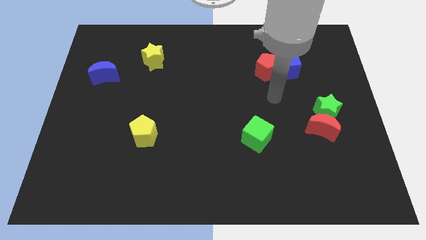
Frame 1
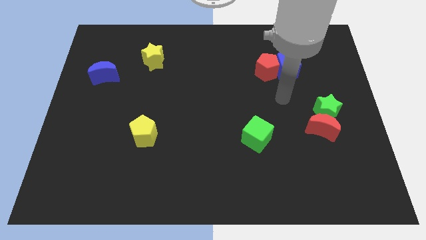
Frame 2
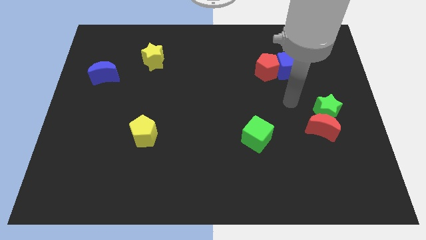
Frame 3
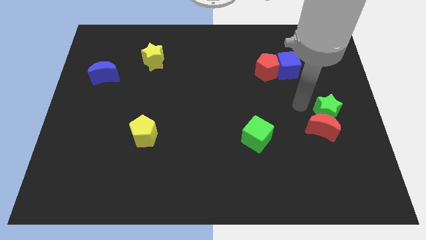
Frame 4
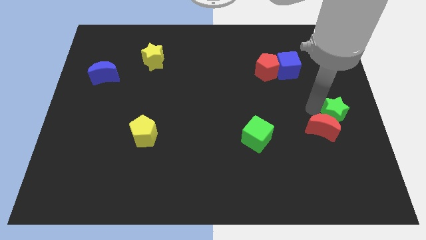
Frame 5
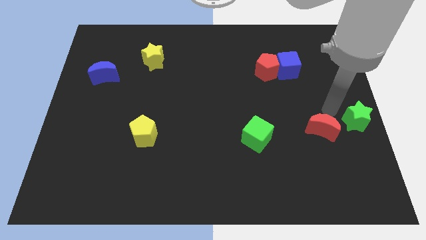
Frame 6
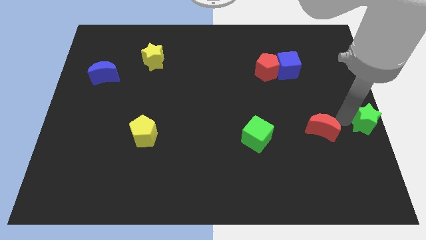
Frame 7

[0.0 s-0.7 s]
move the red moon away from the green star

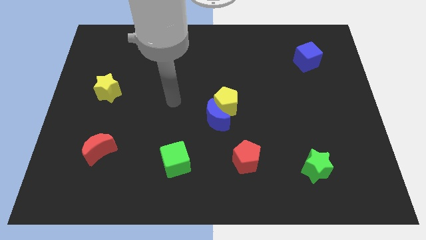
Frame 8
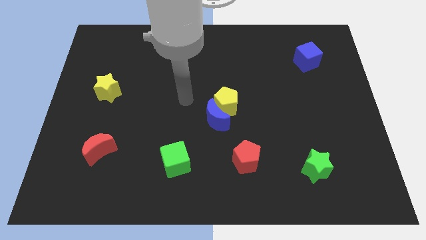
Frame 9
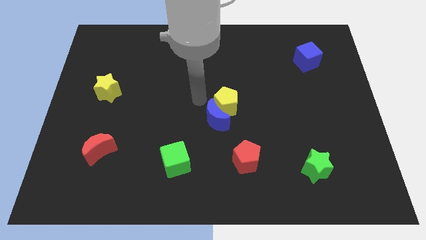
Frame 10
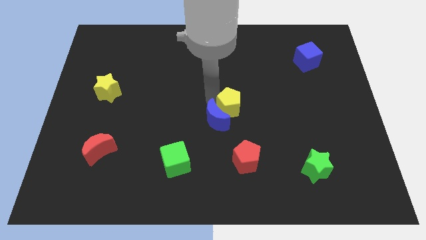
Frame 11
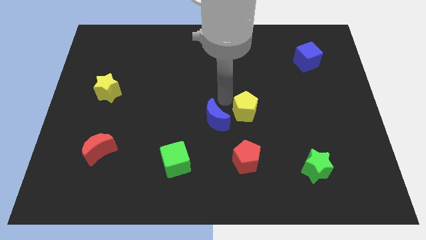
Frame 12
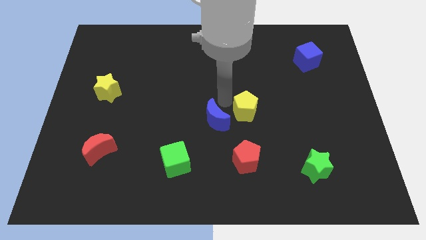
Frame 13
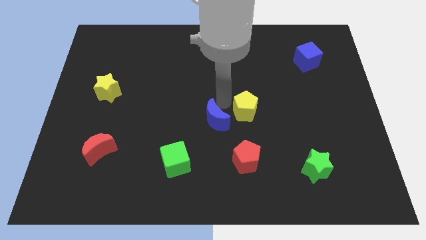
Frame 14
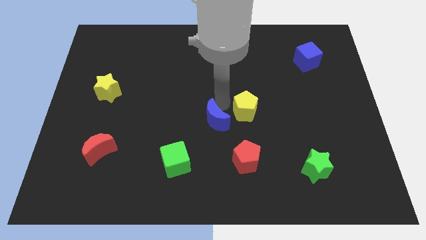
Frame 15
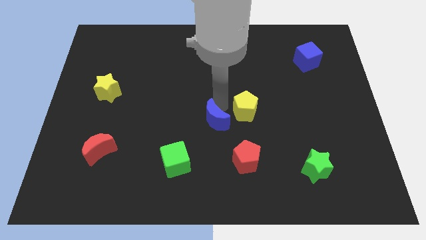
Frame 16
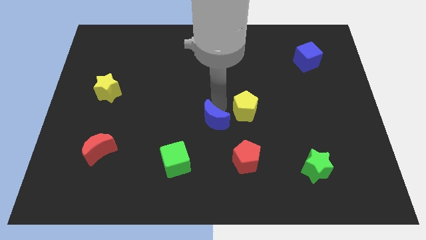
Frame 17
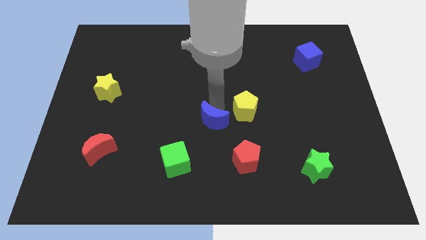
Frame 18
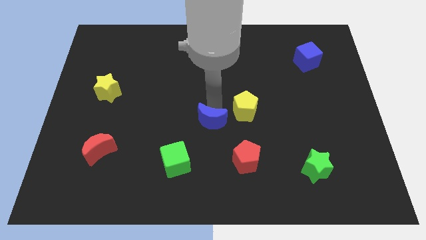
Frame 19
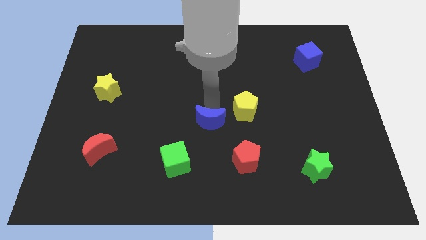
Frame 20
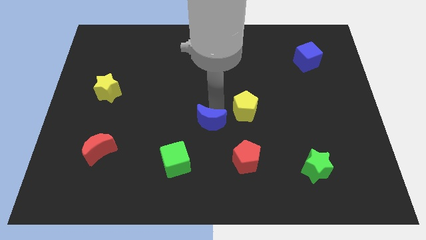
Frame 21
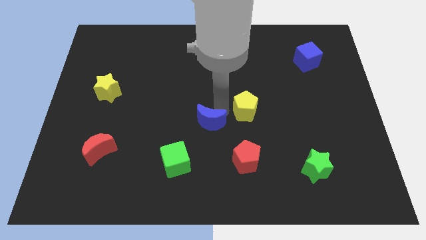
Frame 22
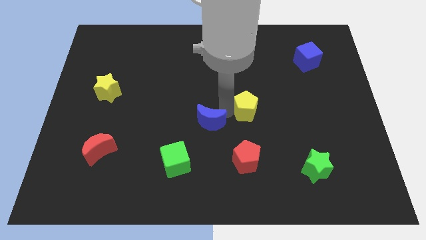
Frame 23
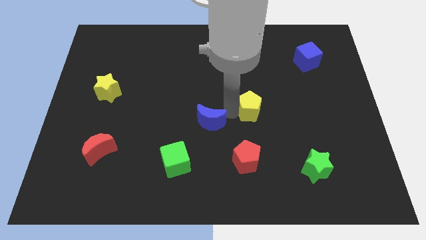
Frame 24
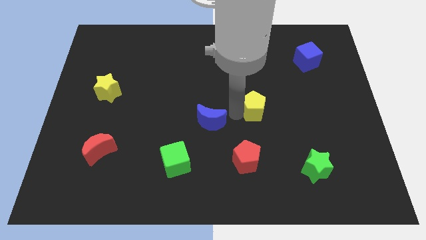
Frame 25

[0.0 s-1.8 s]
separate the blue moon from the yellow pentagon

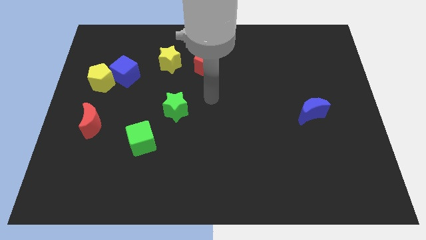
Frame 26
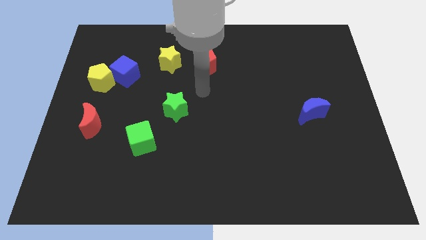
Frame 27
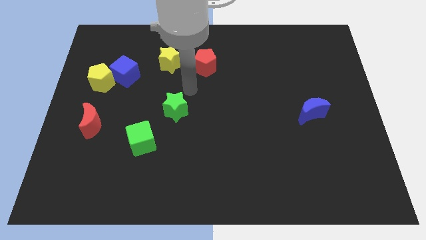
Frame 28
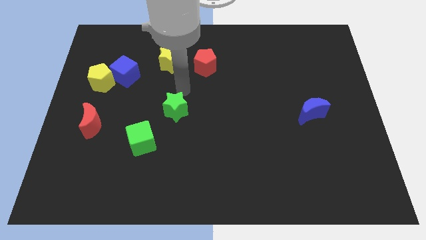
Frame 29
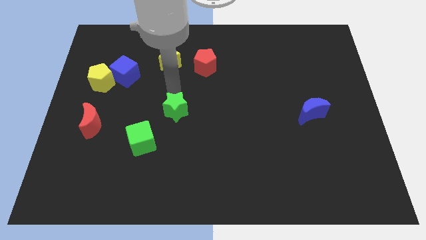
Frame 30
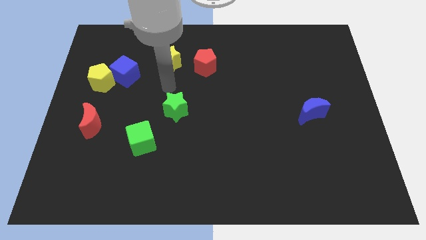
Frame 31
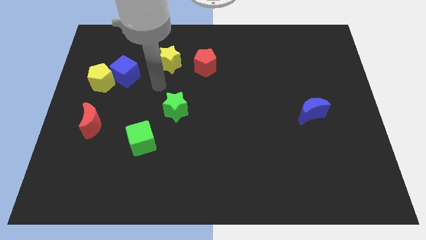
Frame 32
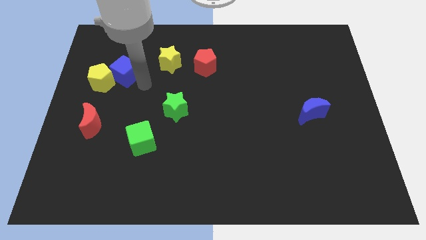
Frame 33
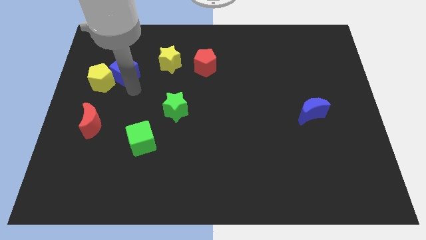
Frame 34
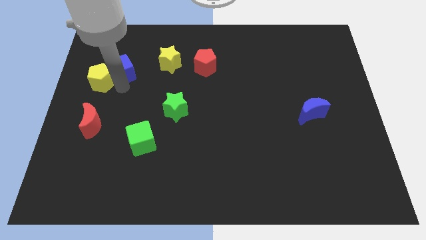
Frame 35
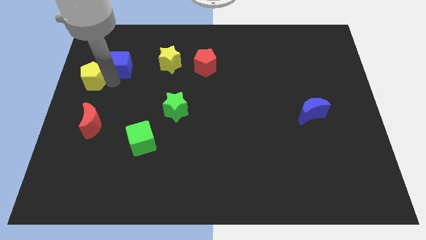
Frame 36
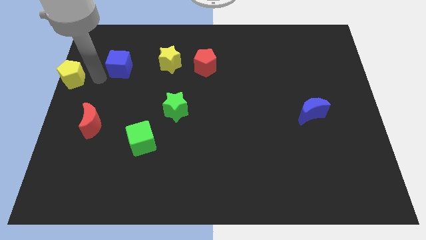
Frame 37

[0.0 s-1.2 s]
move the blue cube away from the yellow pentagon

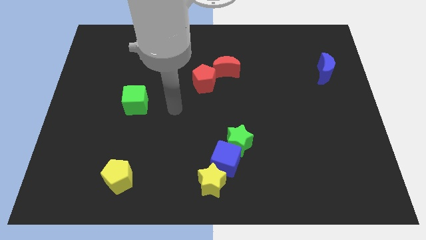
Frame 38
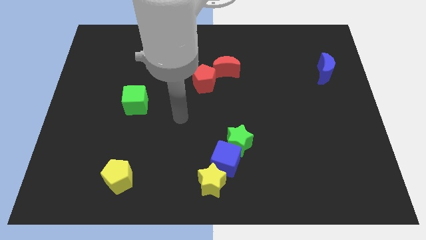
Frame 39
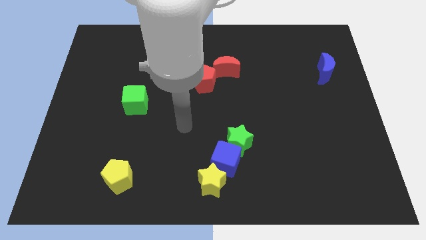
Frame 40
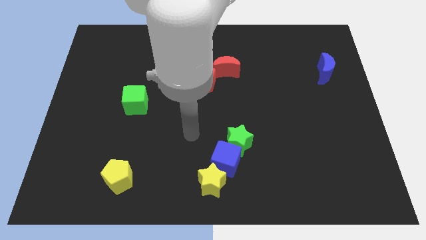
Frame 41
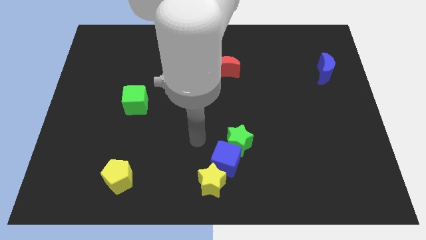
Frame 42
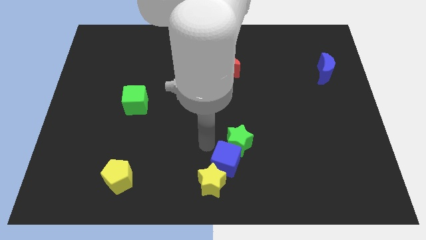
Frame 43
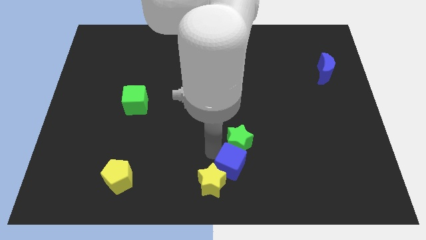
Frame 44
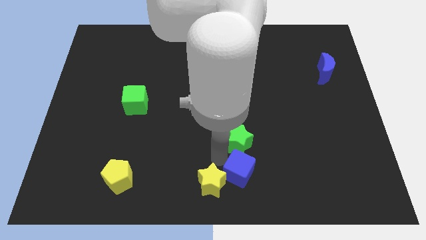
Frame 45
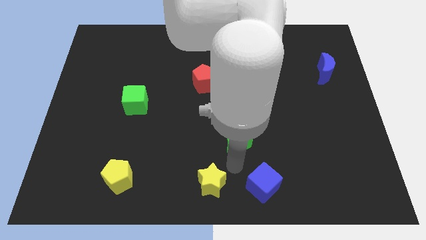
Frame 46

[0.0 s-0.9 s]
move the green star away from the blue cube

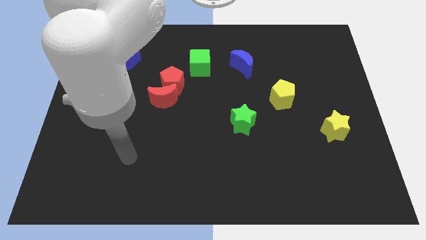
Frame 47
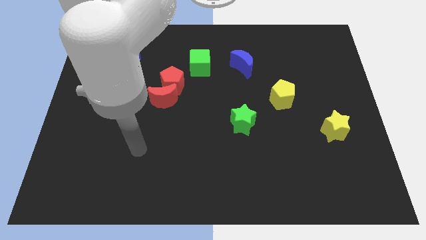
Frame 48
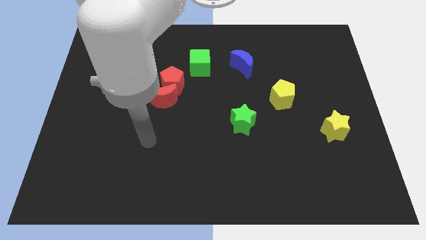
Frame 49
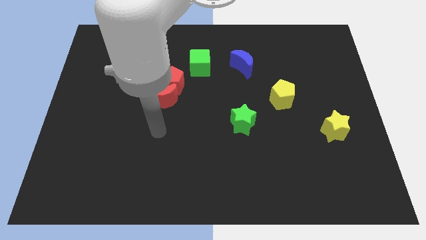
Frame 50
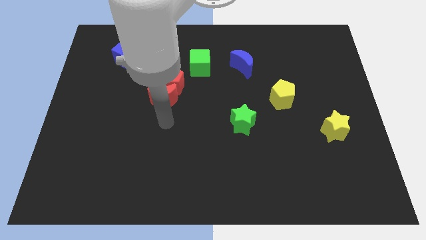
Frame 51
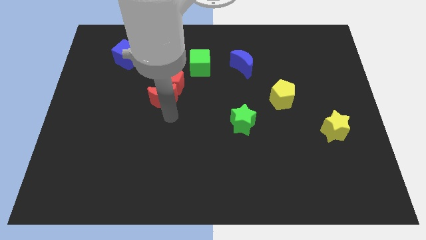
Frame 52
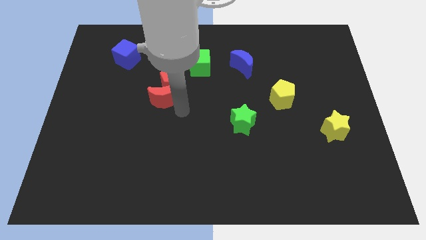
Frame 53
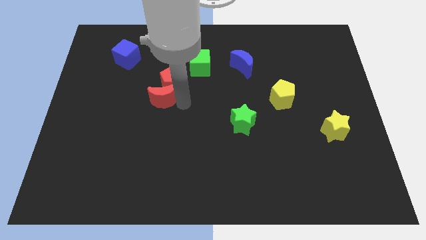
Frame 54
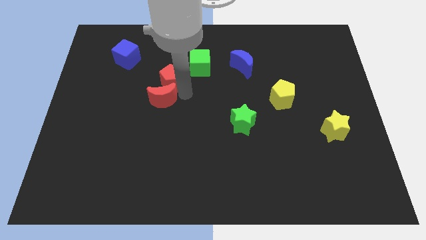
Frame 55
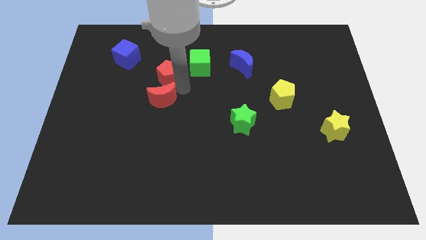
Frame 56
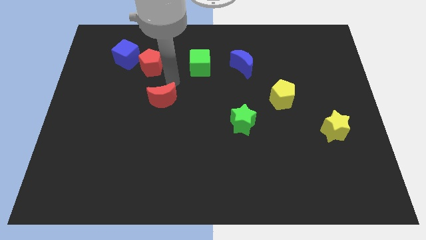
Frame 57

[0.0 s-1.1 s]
separate the red moon from the red pentagon

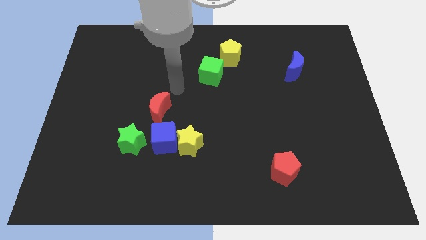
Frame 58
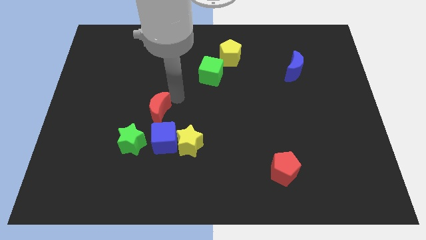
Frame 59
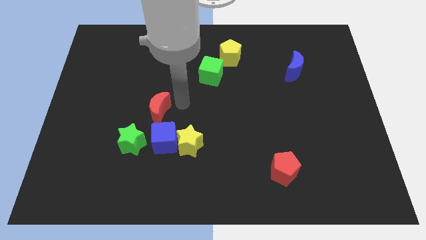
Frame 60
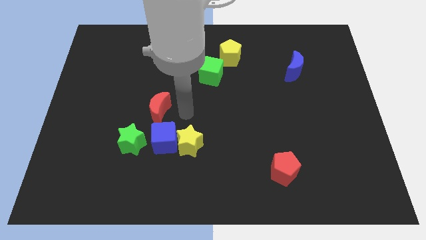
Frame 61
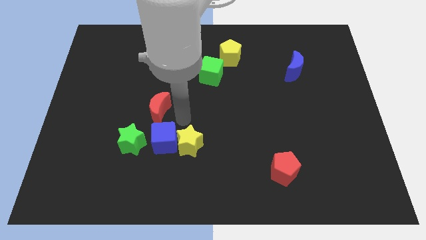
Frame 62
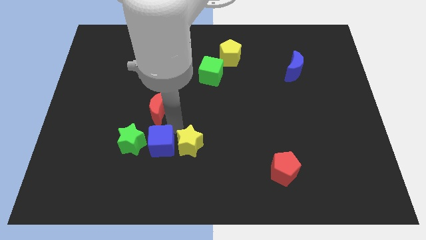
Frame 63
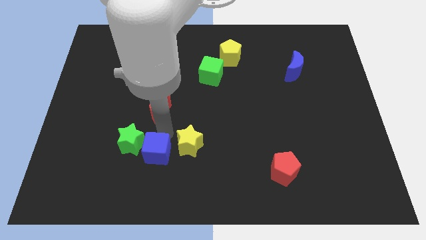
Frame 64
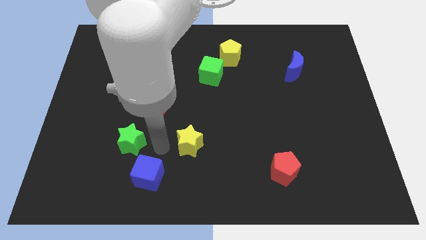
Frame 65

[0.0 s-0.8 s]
pull the yellow star apart from the blue cube

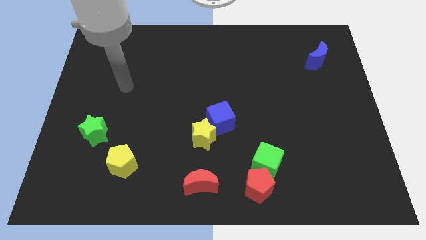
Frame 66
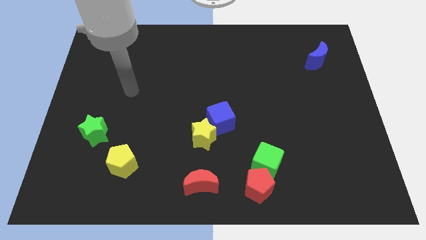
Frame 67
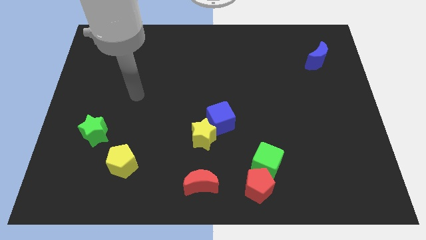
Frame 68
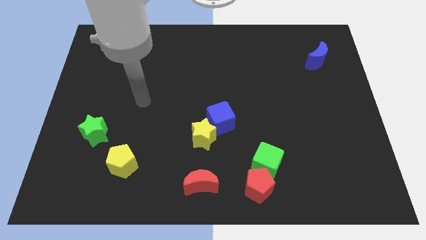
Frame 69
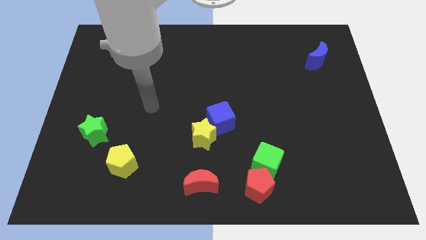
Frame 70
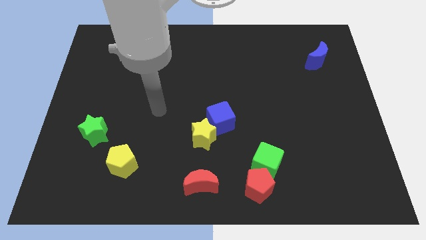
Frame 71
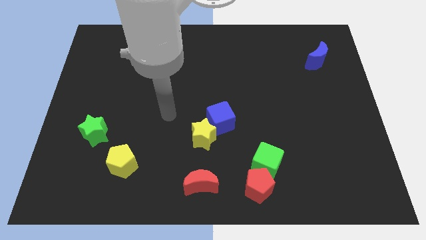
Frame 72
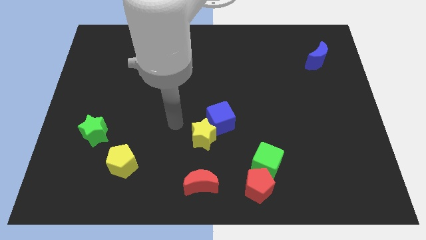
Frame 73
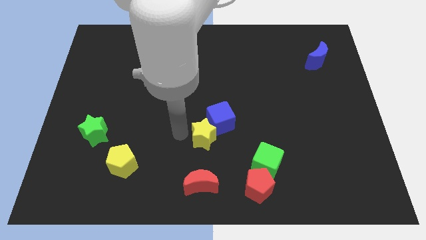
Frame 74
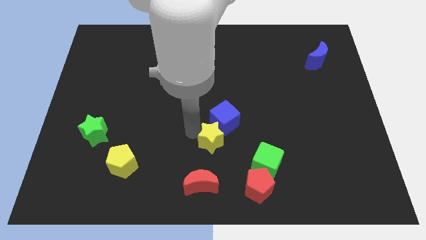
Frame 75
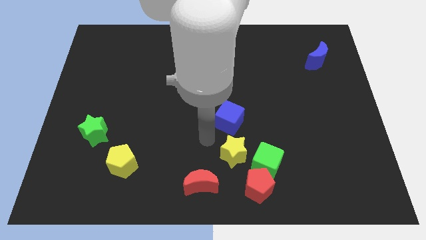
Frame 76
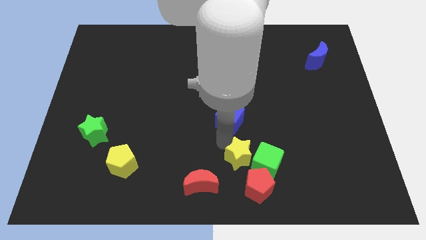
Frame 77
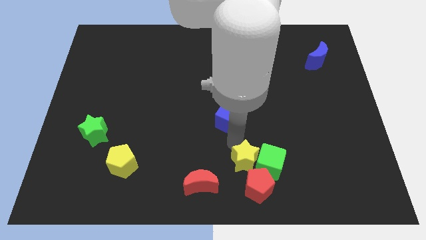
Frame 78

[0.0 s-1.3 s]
move the blue cube away from the yellow star

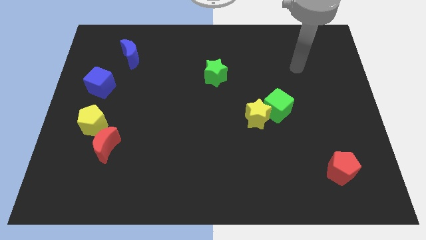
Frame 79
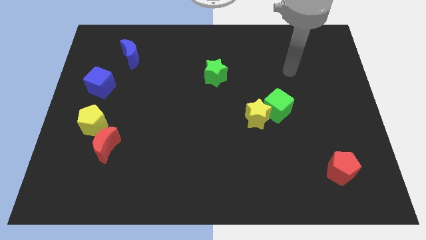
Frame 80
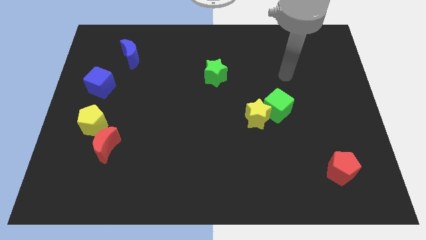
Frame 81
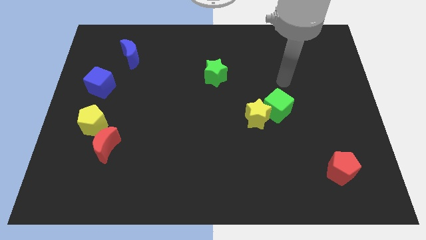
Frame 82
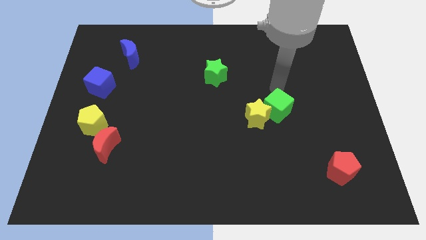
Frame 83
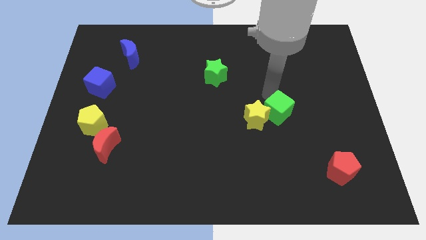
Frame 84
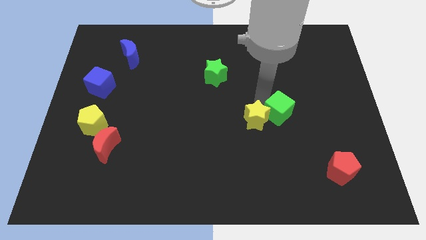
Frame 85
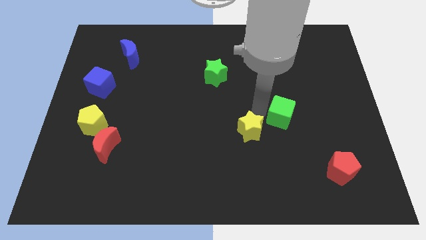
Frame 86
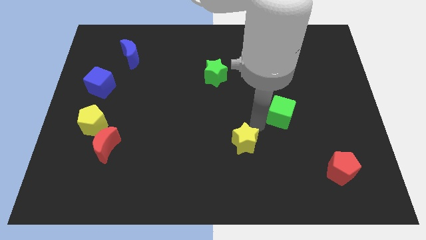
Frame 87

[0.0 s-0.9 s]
separate the green cube from the yellow star

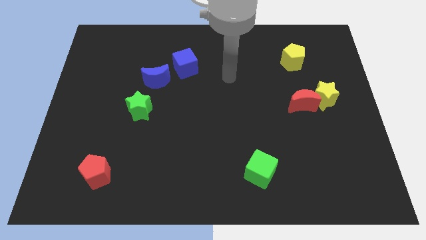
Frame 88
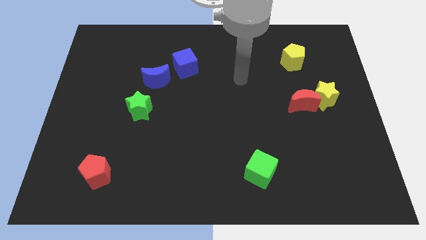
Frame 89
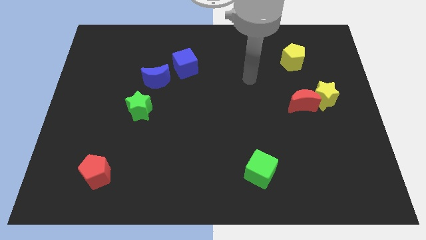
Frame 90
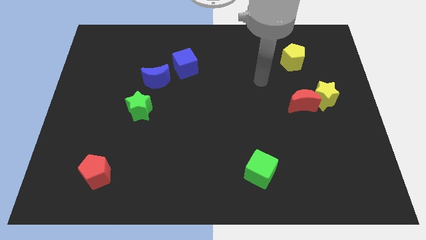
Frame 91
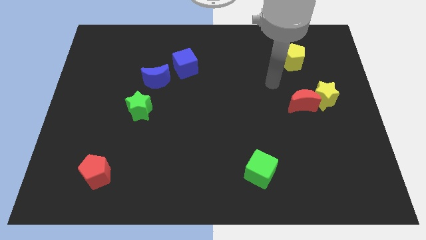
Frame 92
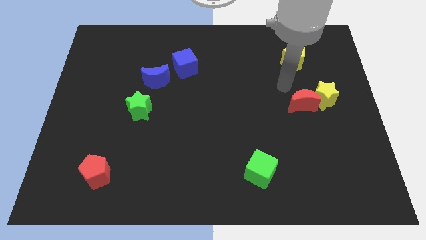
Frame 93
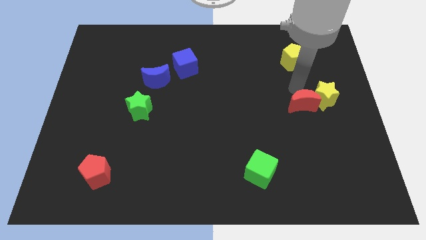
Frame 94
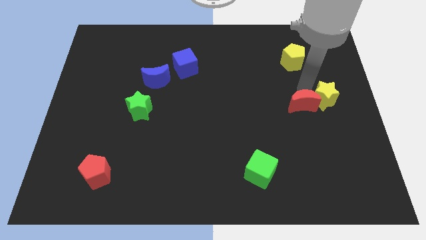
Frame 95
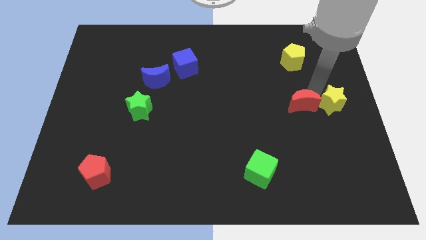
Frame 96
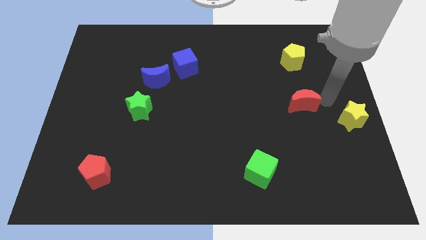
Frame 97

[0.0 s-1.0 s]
pull the red moon apart from the yellow star
